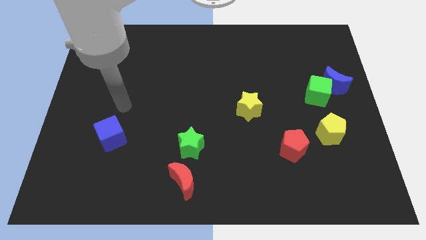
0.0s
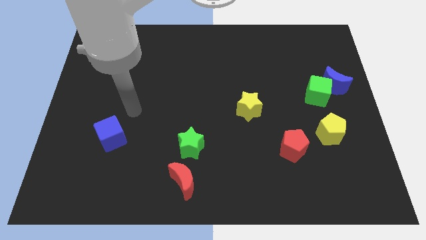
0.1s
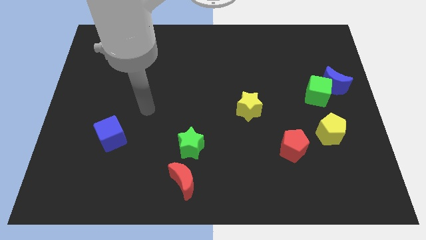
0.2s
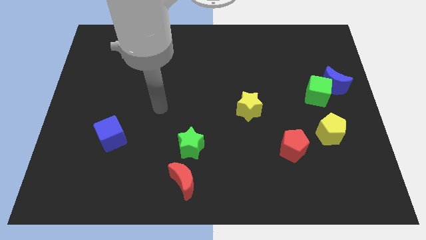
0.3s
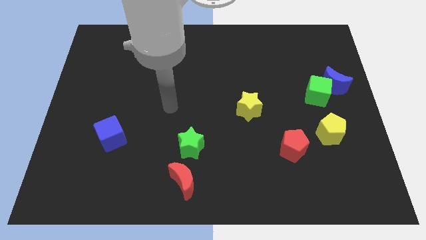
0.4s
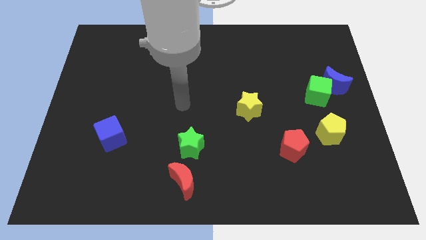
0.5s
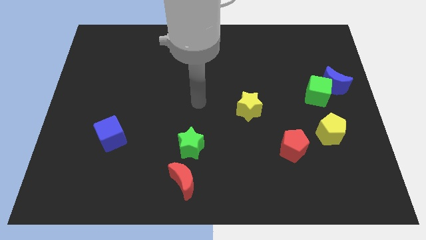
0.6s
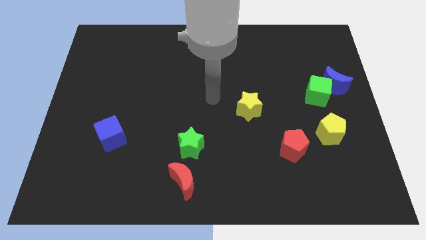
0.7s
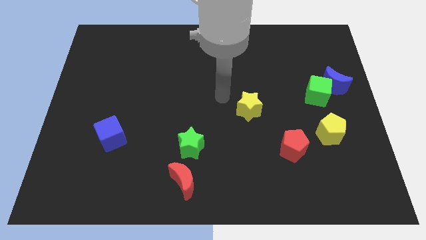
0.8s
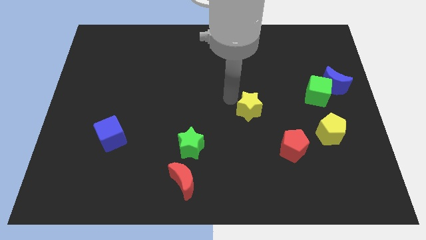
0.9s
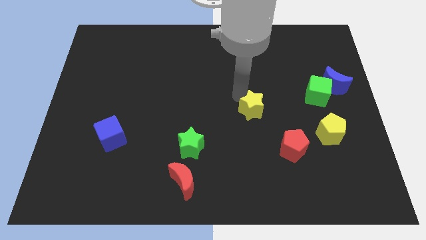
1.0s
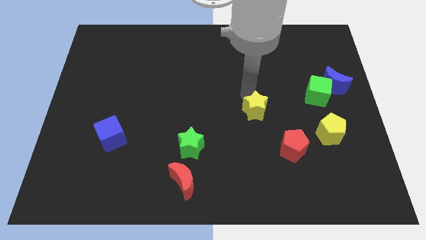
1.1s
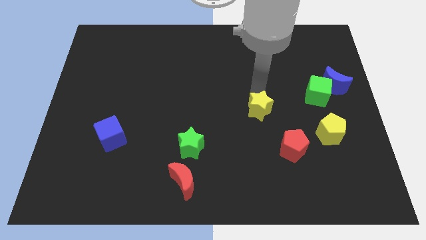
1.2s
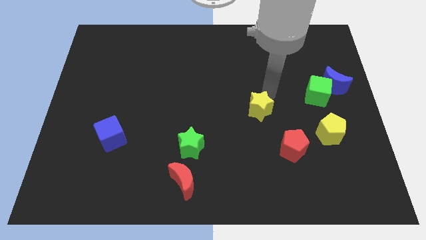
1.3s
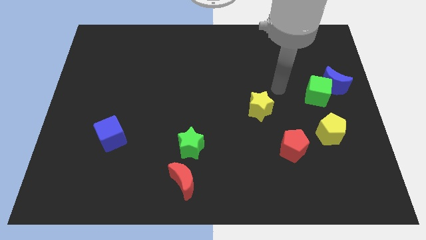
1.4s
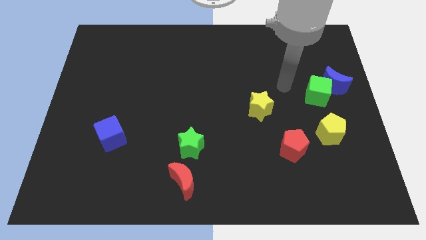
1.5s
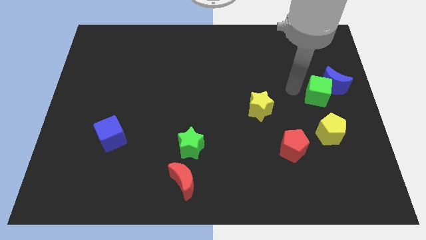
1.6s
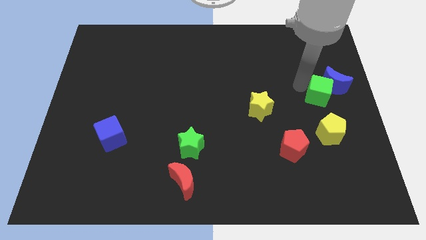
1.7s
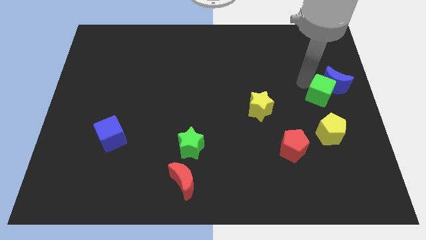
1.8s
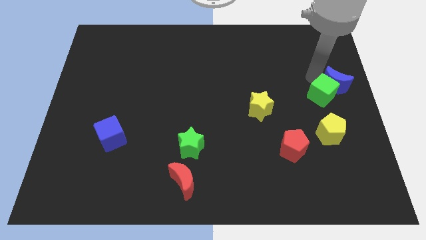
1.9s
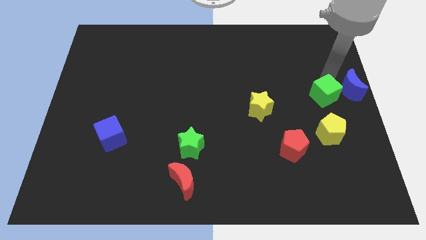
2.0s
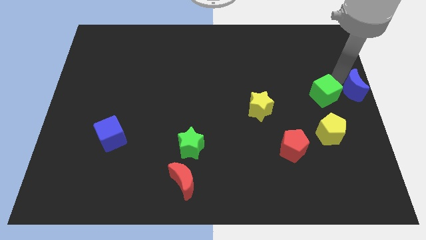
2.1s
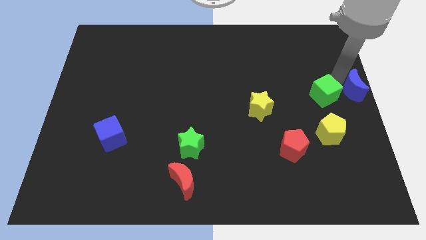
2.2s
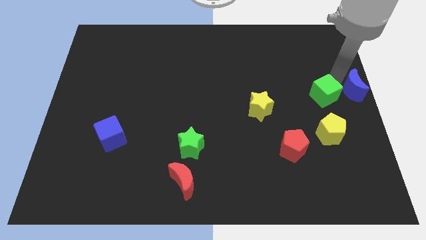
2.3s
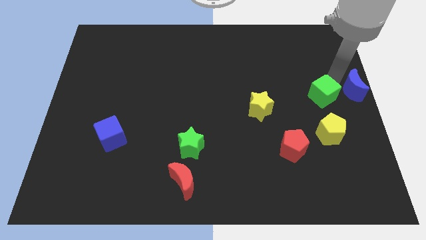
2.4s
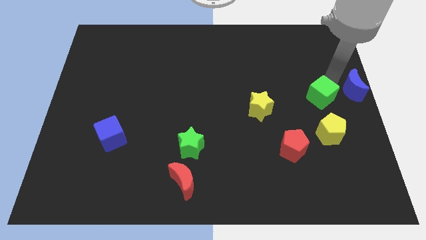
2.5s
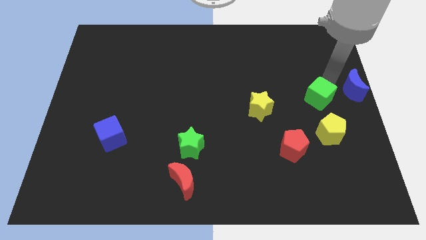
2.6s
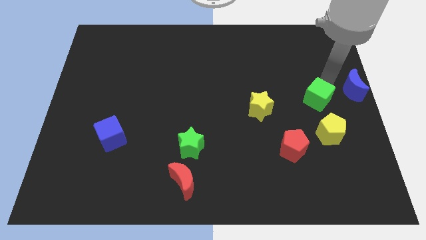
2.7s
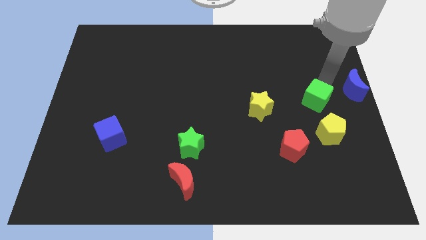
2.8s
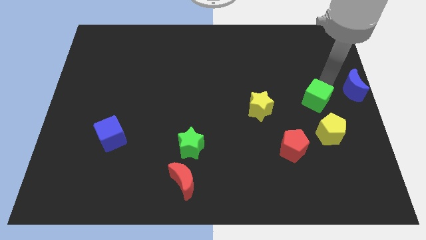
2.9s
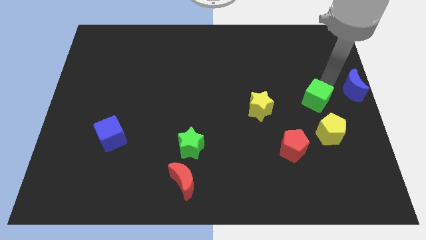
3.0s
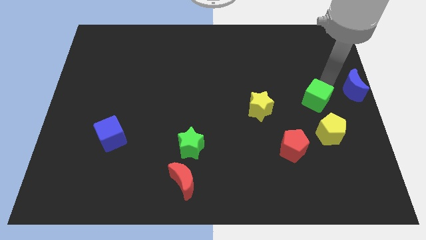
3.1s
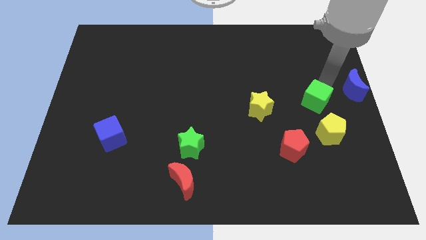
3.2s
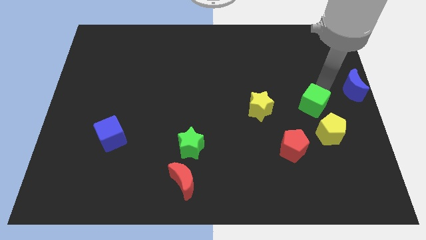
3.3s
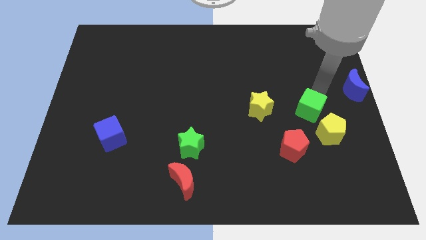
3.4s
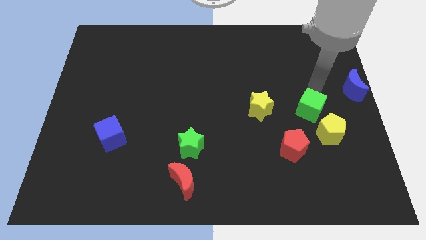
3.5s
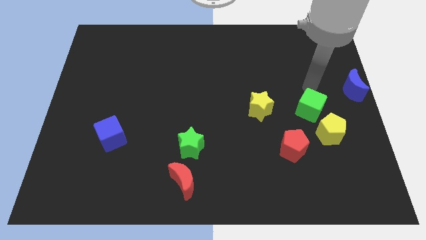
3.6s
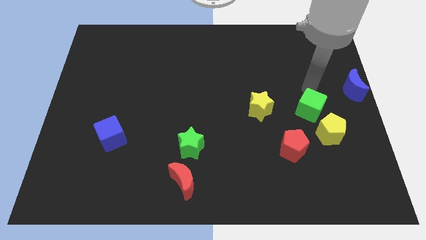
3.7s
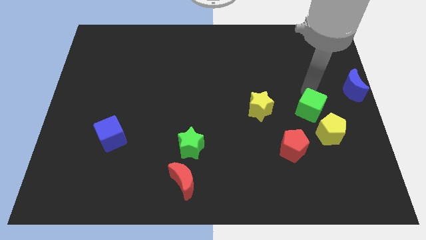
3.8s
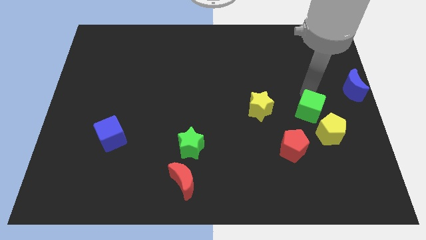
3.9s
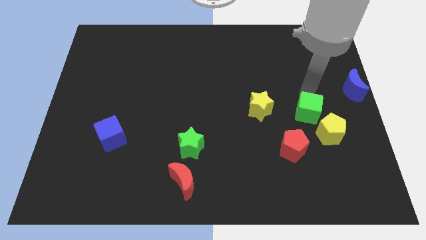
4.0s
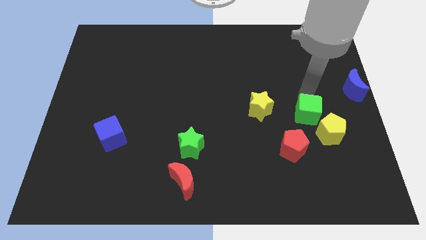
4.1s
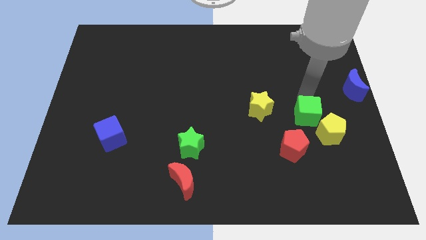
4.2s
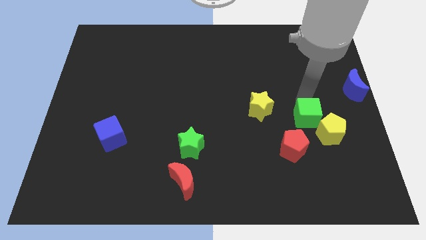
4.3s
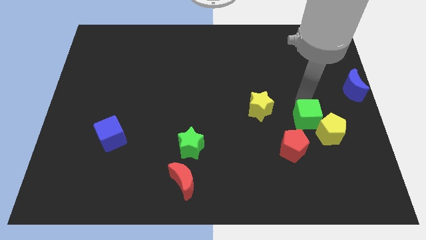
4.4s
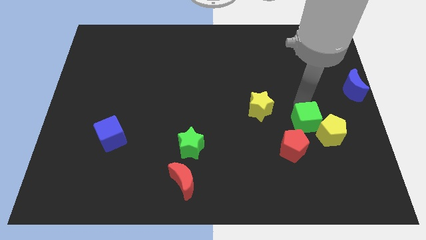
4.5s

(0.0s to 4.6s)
slightly push the green cube down

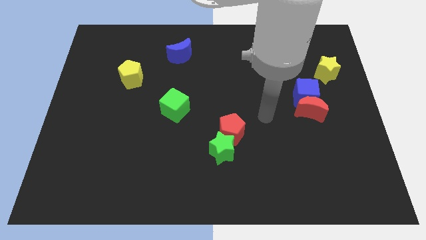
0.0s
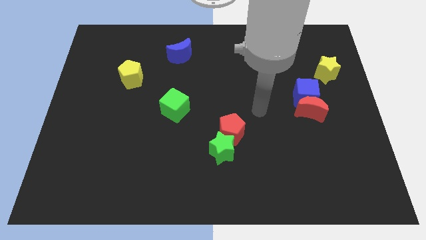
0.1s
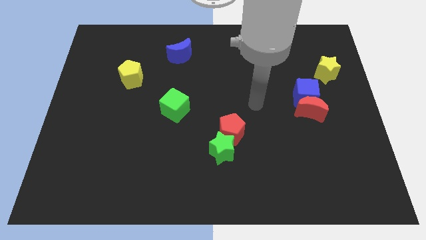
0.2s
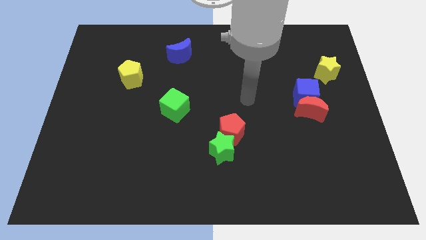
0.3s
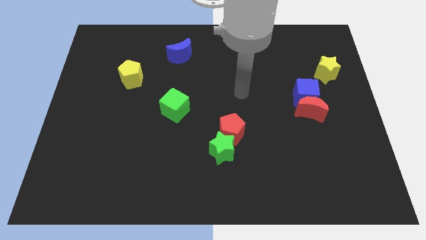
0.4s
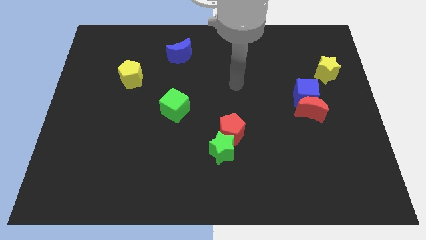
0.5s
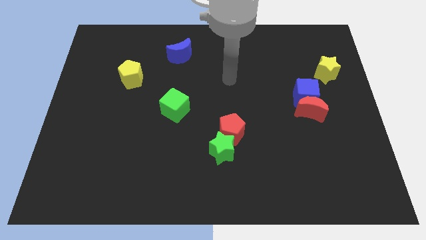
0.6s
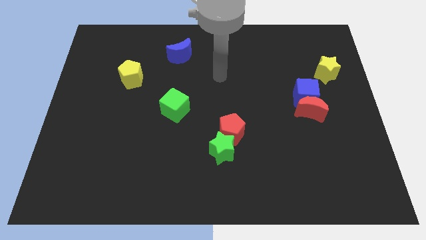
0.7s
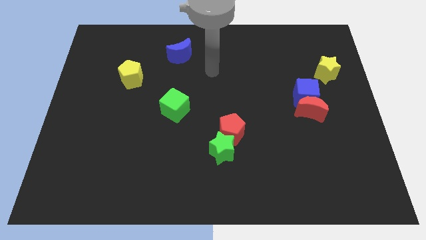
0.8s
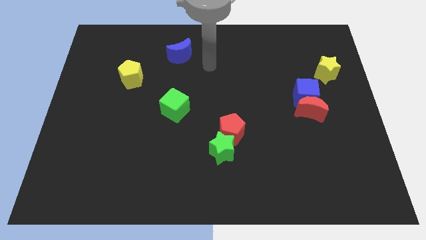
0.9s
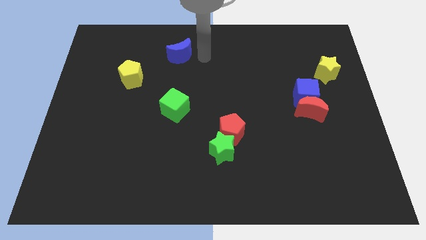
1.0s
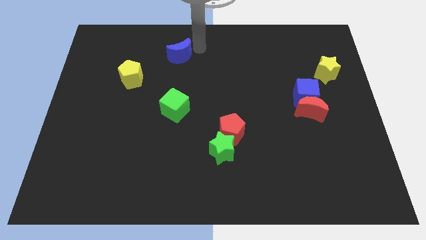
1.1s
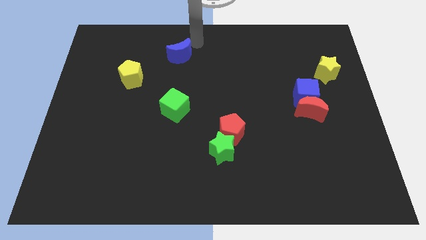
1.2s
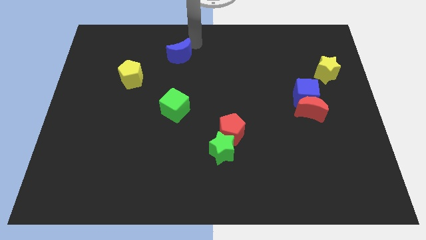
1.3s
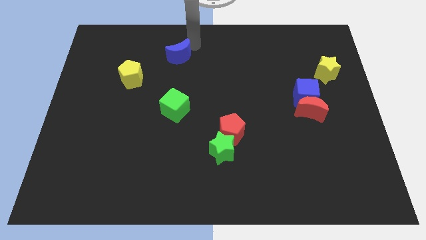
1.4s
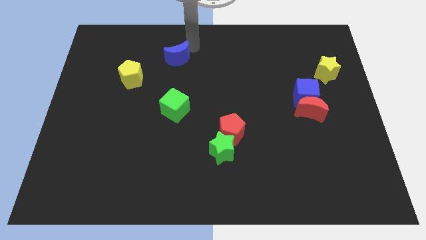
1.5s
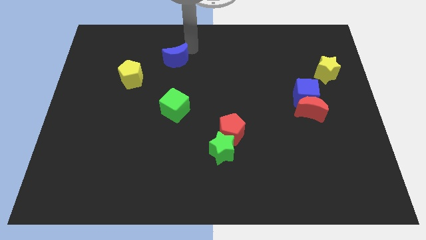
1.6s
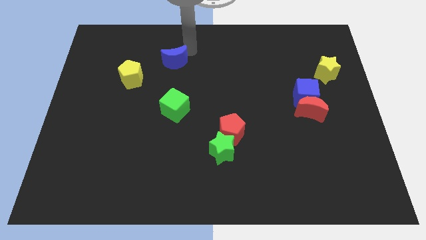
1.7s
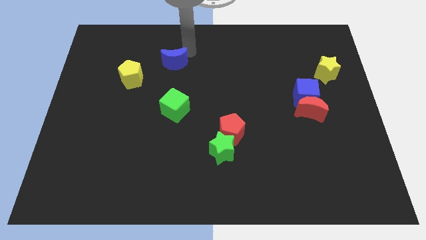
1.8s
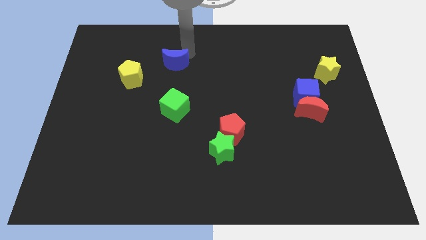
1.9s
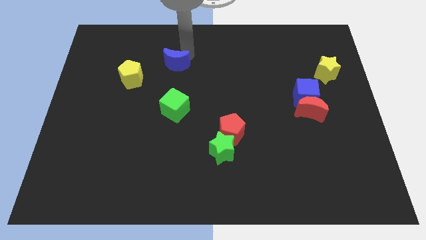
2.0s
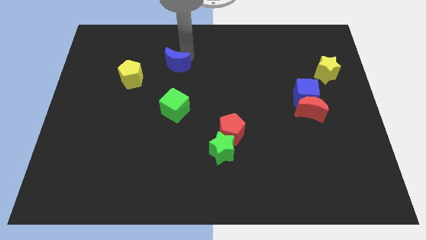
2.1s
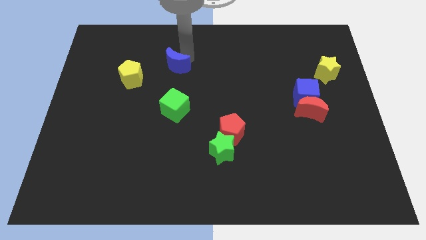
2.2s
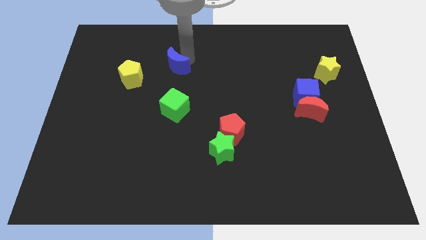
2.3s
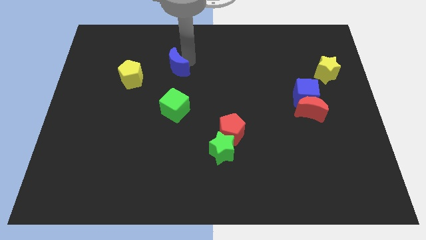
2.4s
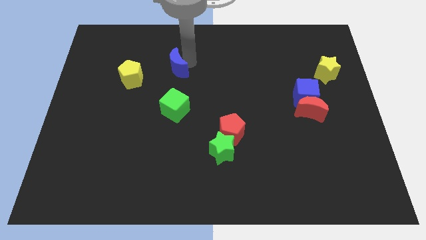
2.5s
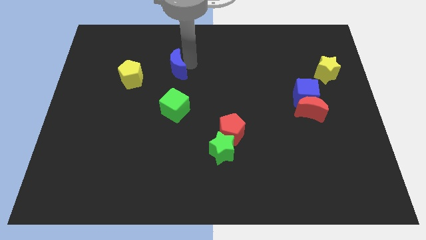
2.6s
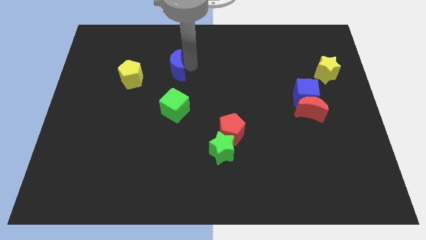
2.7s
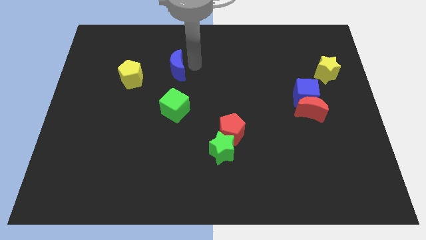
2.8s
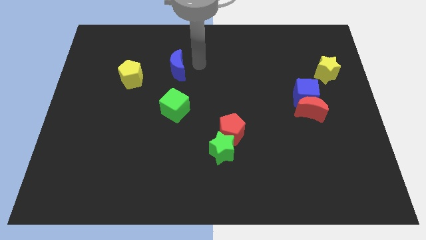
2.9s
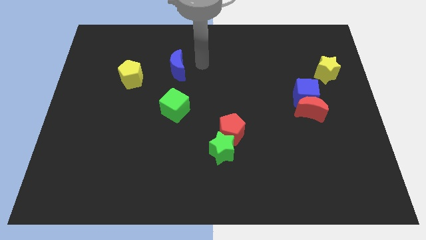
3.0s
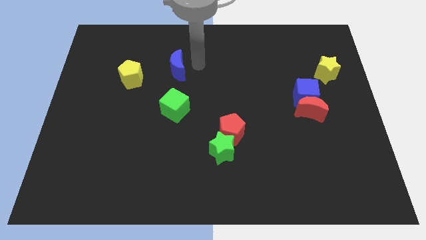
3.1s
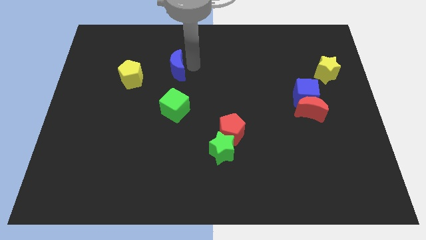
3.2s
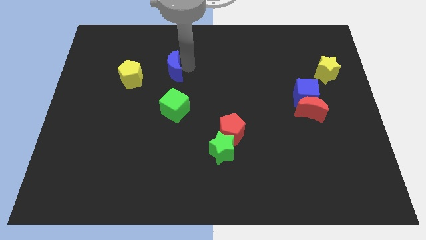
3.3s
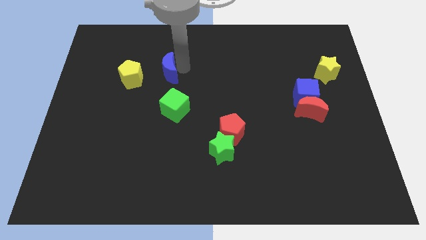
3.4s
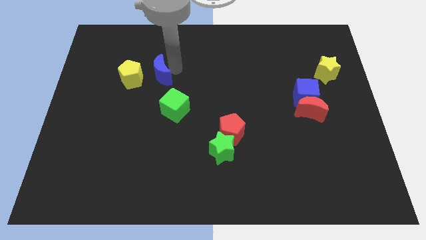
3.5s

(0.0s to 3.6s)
slightly push the blue moon down and left
